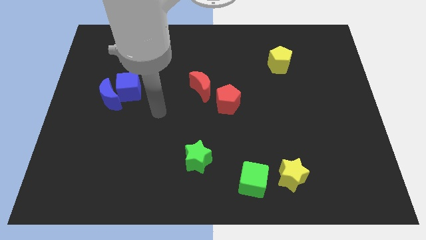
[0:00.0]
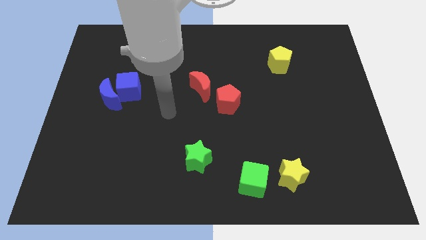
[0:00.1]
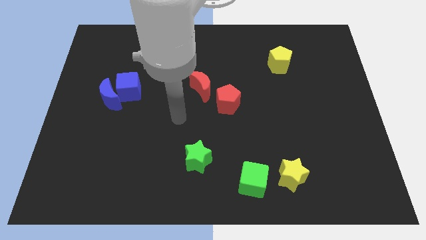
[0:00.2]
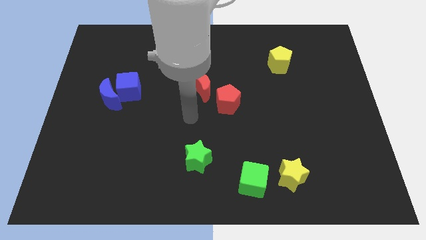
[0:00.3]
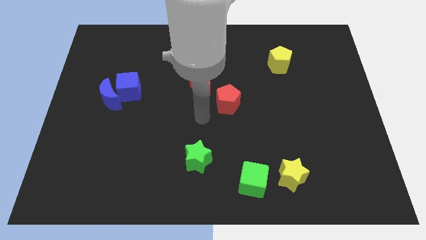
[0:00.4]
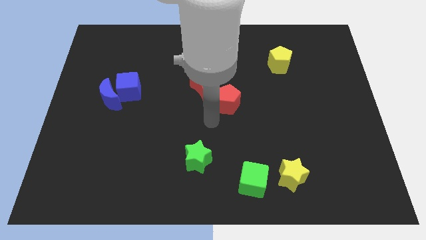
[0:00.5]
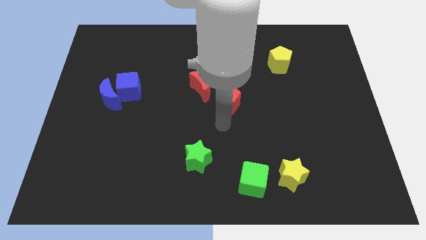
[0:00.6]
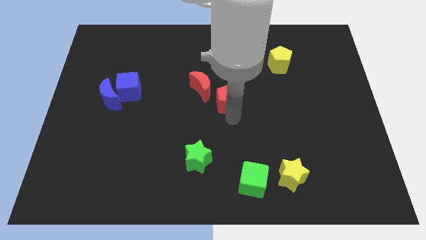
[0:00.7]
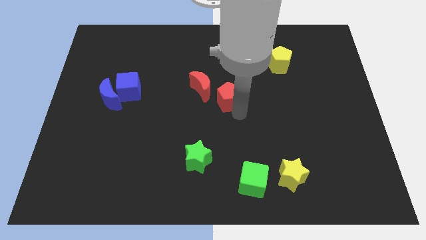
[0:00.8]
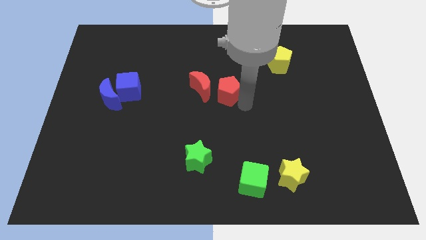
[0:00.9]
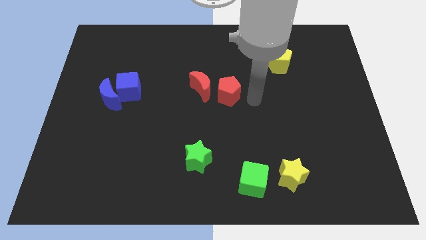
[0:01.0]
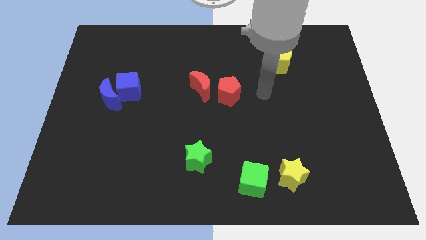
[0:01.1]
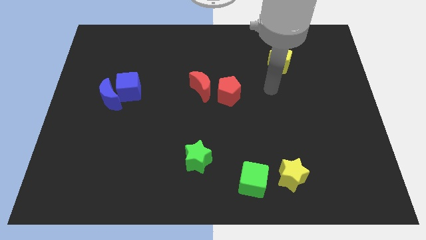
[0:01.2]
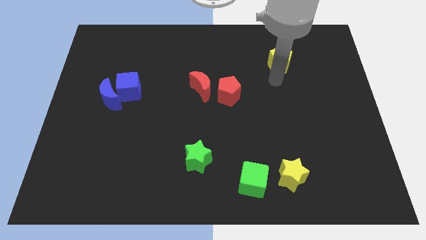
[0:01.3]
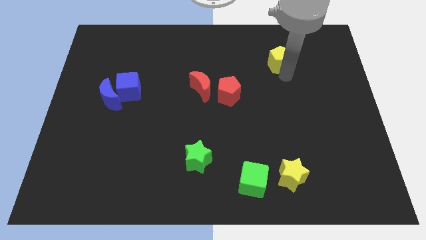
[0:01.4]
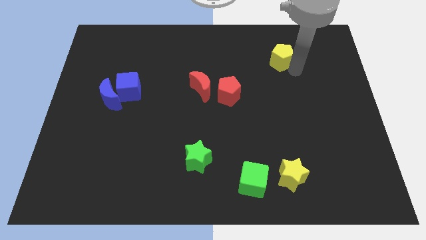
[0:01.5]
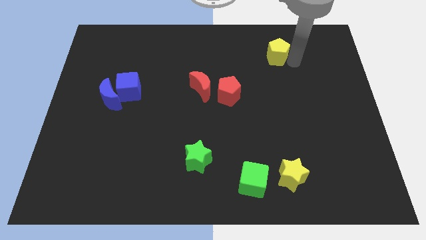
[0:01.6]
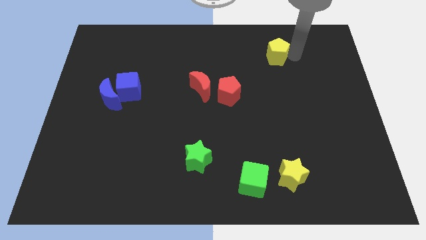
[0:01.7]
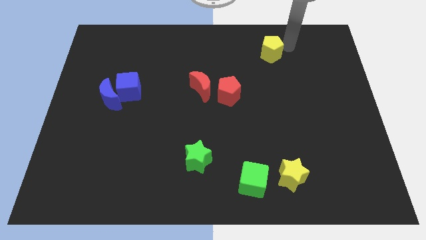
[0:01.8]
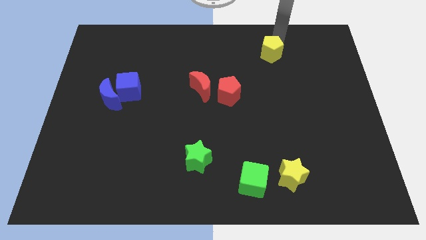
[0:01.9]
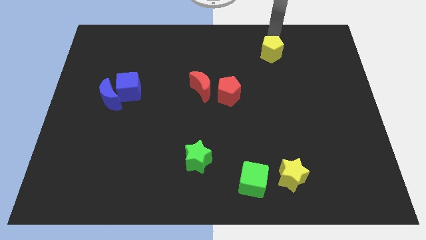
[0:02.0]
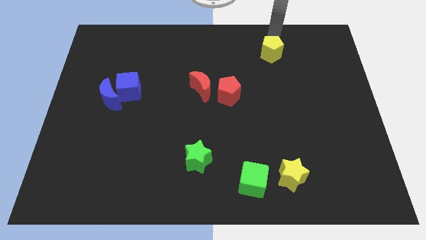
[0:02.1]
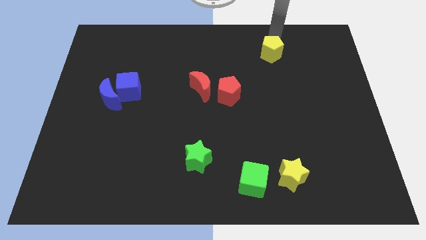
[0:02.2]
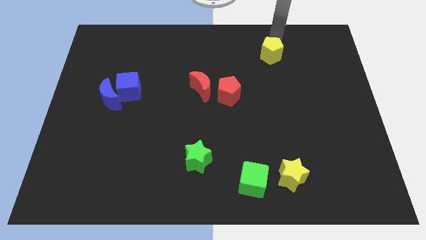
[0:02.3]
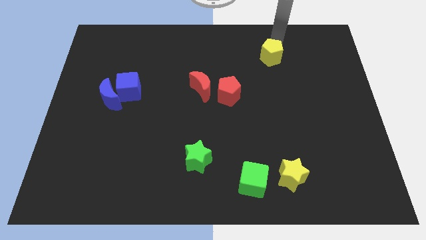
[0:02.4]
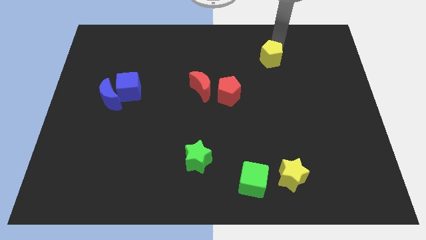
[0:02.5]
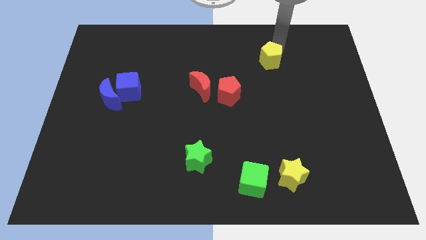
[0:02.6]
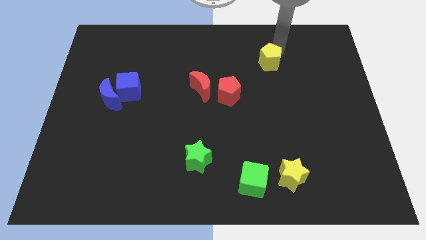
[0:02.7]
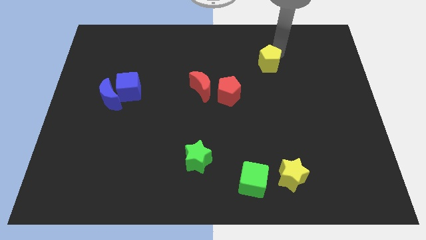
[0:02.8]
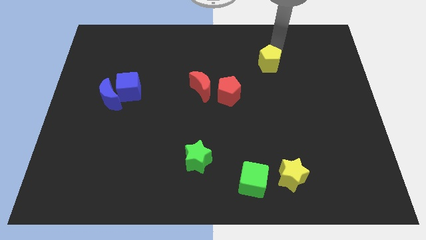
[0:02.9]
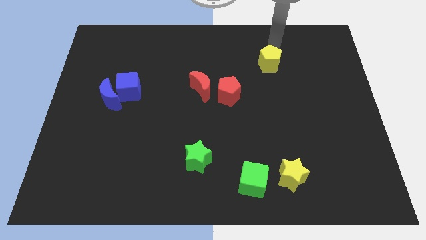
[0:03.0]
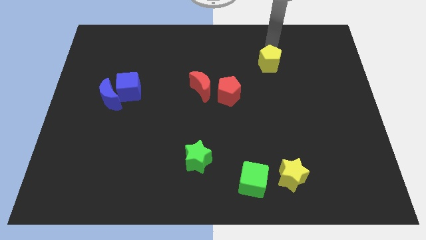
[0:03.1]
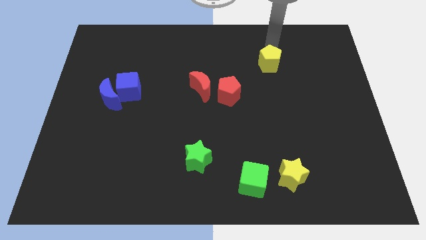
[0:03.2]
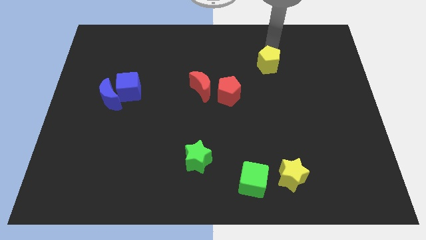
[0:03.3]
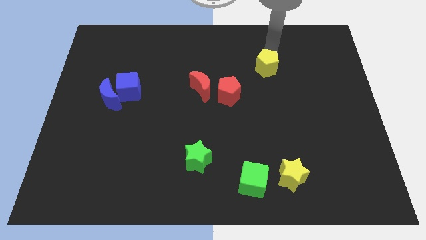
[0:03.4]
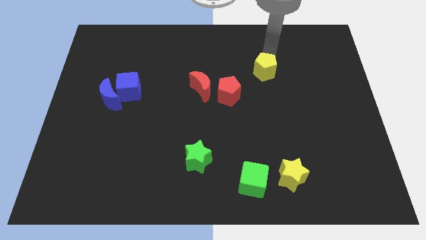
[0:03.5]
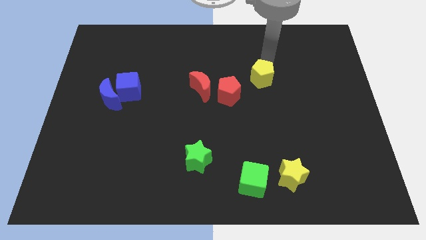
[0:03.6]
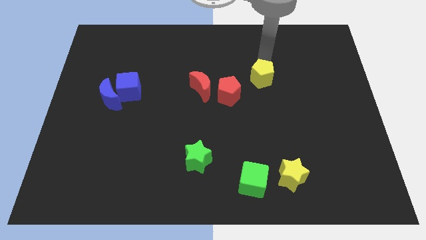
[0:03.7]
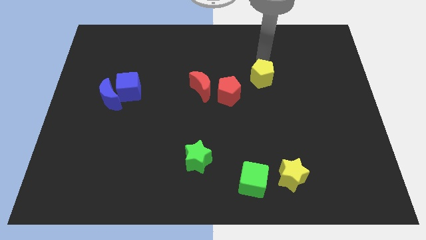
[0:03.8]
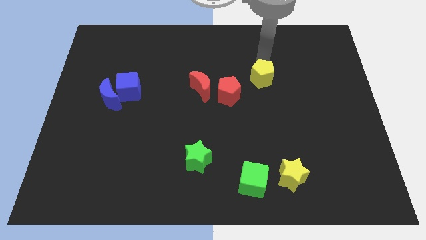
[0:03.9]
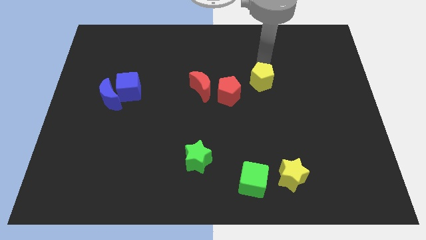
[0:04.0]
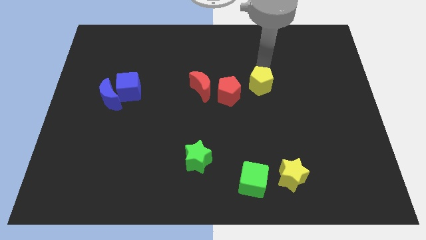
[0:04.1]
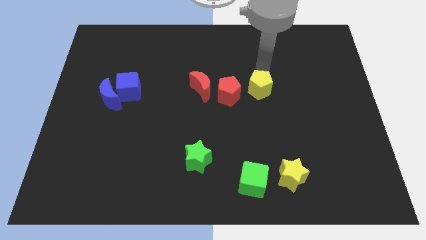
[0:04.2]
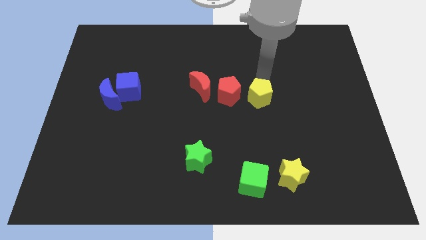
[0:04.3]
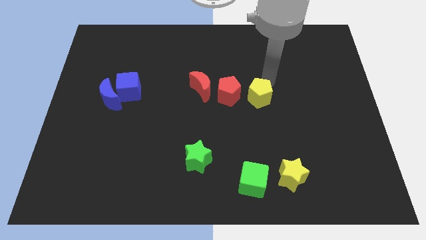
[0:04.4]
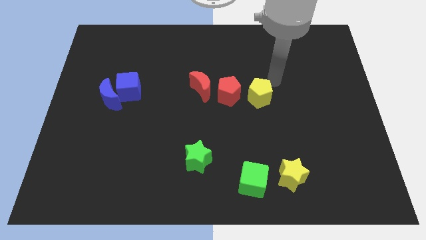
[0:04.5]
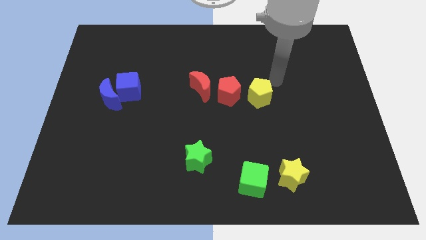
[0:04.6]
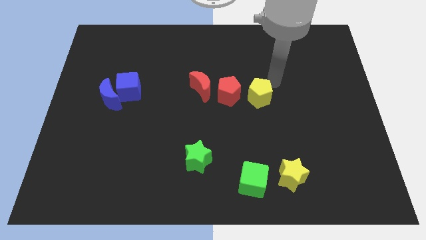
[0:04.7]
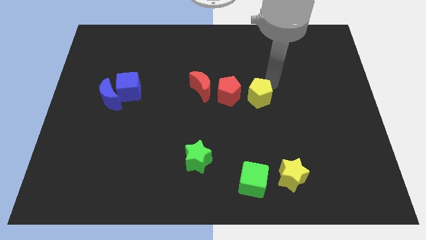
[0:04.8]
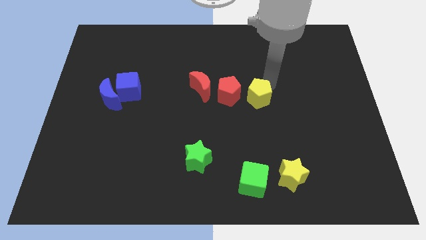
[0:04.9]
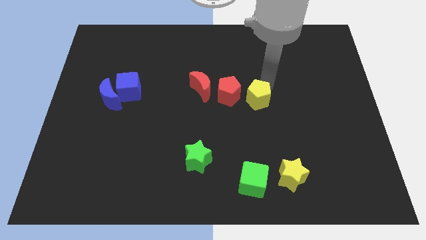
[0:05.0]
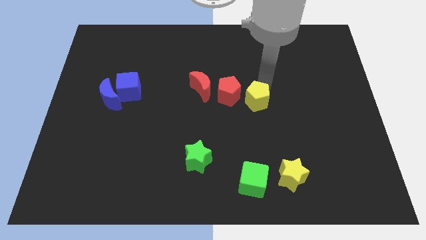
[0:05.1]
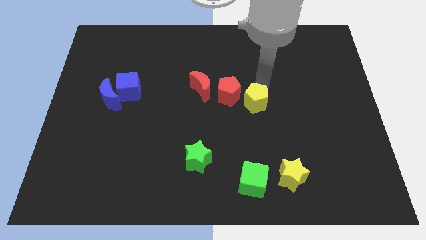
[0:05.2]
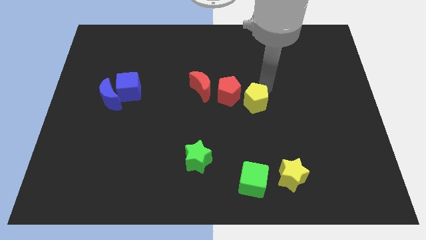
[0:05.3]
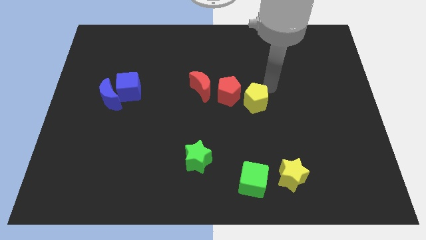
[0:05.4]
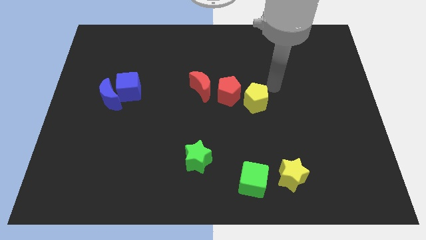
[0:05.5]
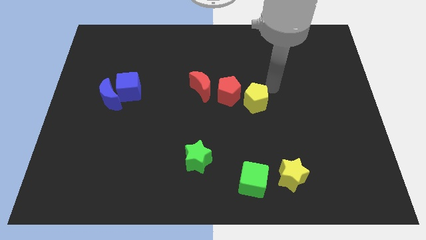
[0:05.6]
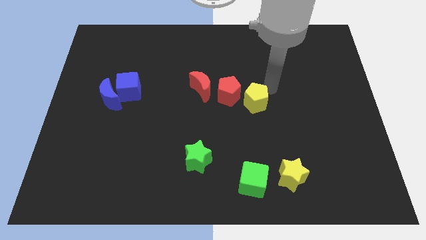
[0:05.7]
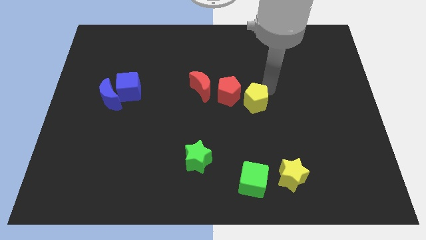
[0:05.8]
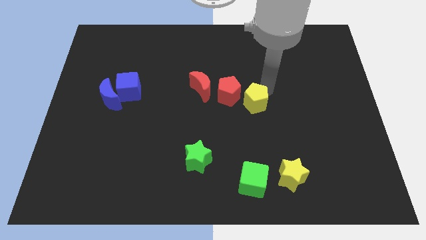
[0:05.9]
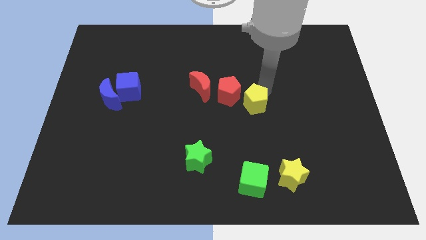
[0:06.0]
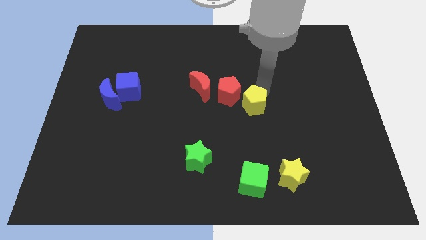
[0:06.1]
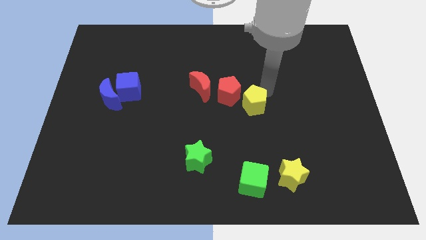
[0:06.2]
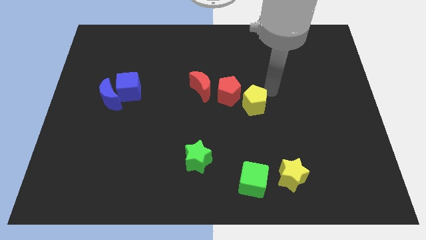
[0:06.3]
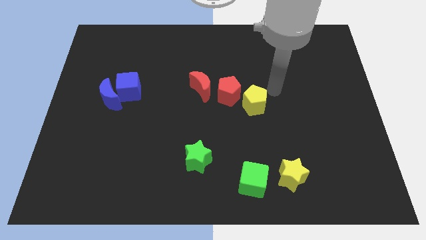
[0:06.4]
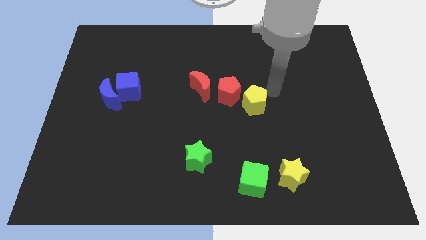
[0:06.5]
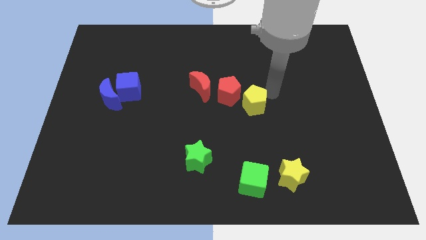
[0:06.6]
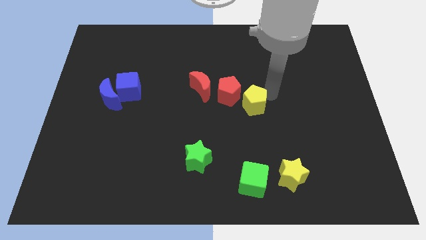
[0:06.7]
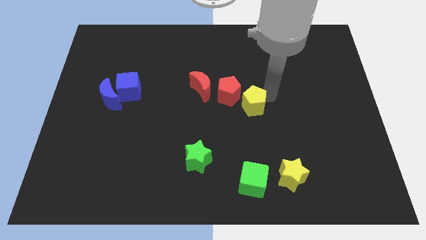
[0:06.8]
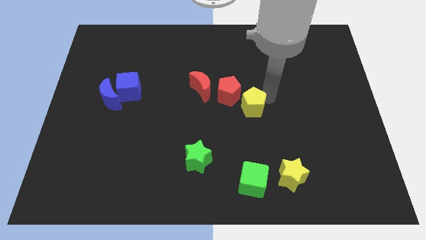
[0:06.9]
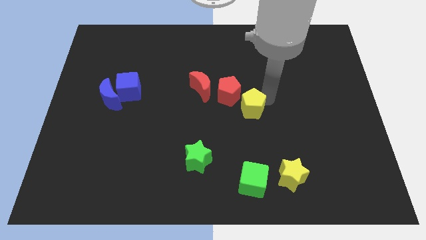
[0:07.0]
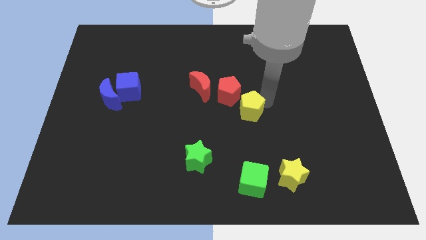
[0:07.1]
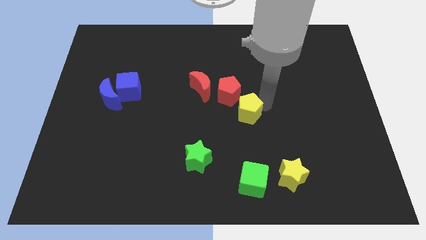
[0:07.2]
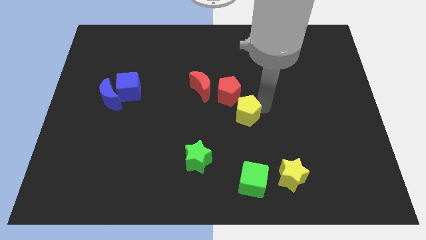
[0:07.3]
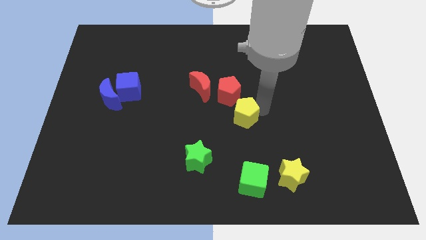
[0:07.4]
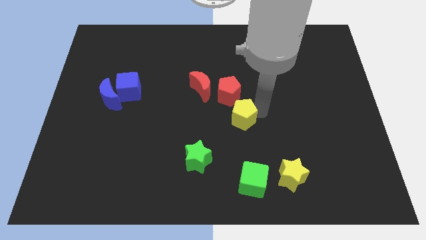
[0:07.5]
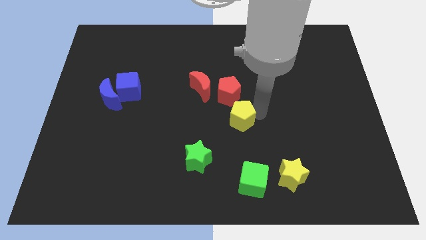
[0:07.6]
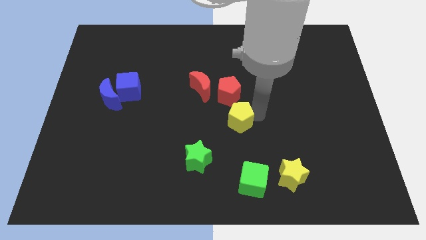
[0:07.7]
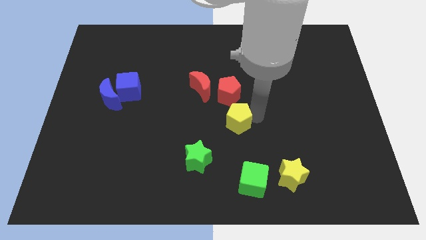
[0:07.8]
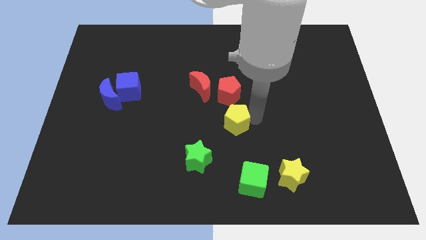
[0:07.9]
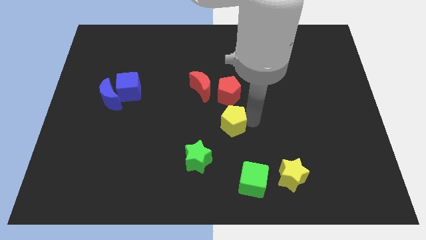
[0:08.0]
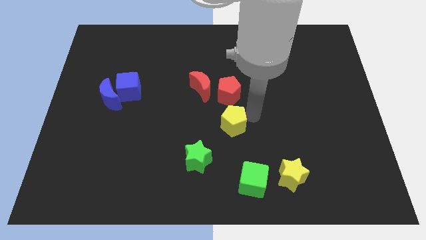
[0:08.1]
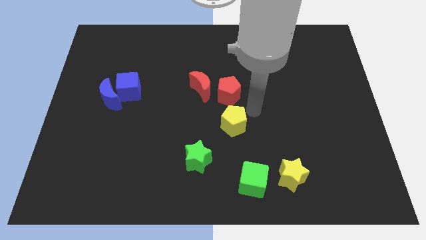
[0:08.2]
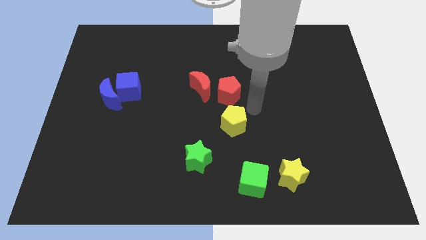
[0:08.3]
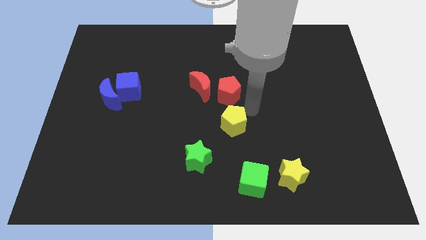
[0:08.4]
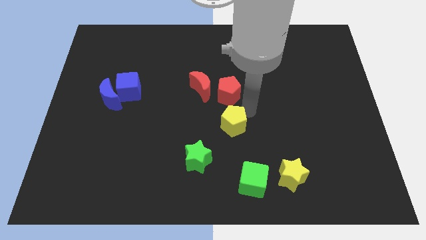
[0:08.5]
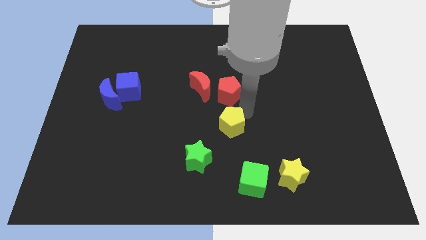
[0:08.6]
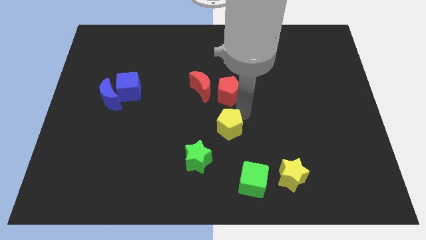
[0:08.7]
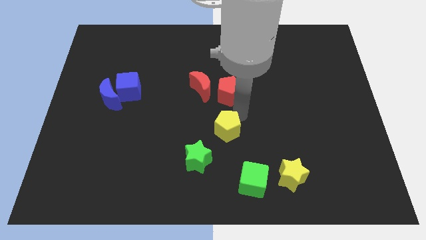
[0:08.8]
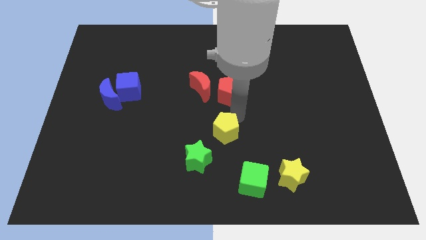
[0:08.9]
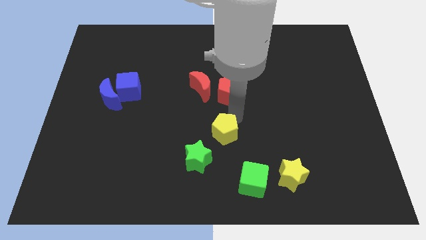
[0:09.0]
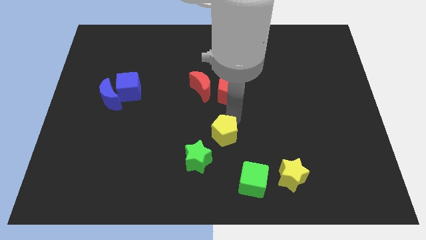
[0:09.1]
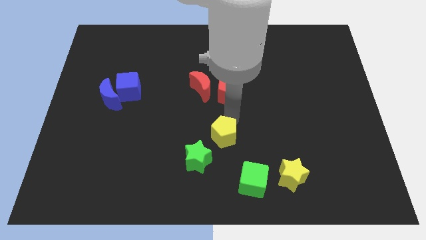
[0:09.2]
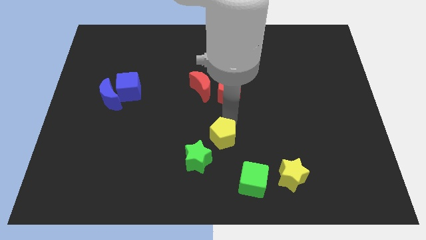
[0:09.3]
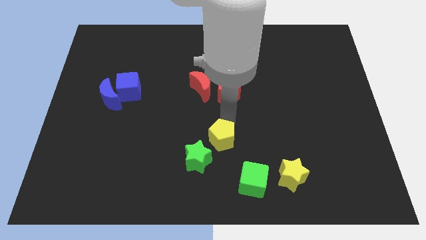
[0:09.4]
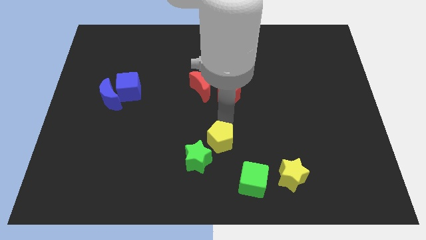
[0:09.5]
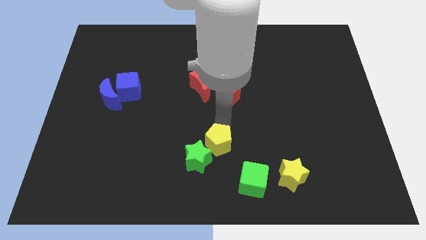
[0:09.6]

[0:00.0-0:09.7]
push the yellow pentagon close to the green star
